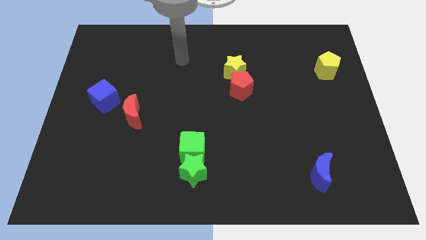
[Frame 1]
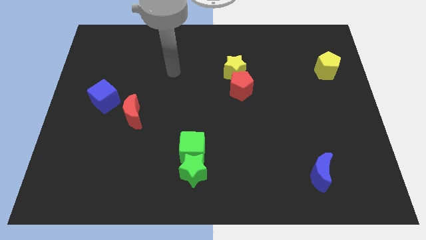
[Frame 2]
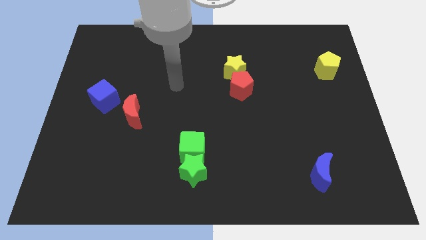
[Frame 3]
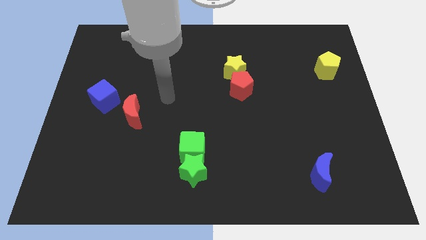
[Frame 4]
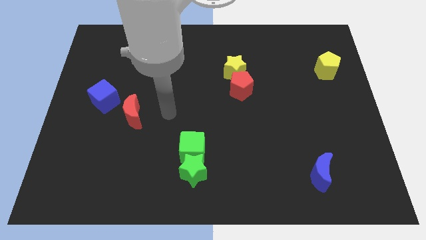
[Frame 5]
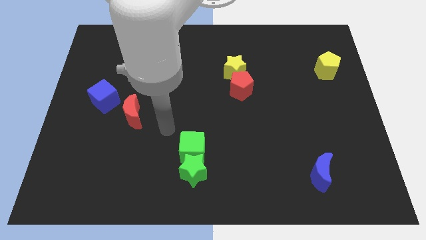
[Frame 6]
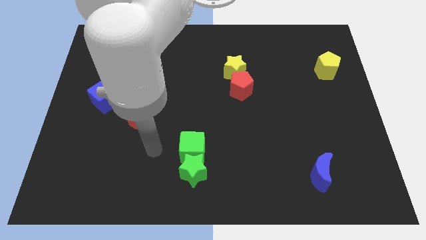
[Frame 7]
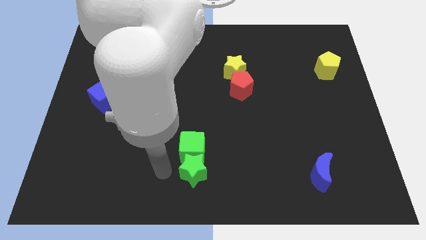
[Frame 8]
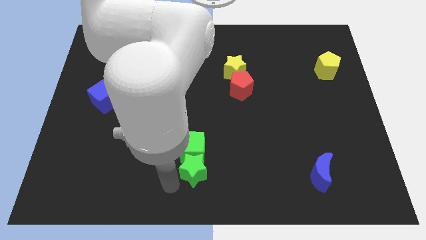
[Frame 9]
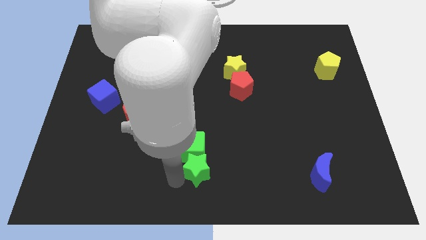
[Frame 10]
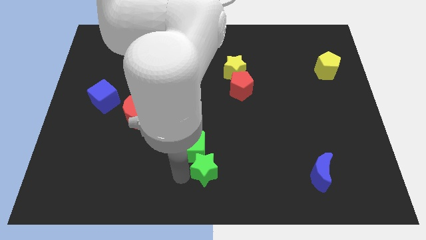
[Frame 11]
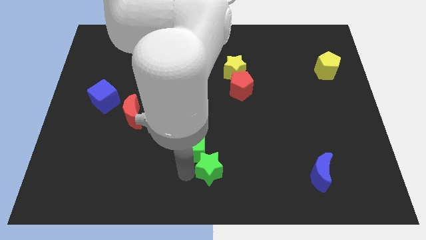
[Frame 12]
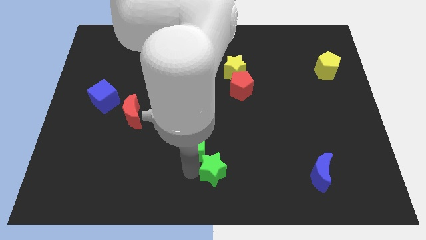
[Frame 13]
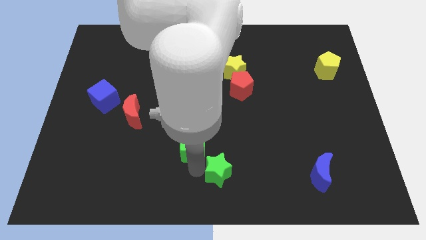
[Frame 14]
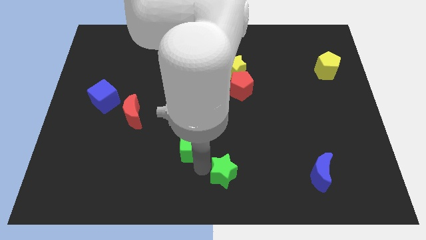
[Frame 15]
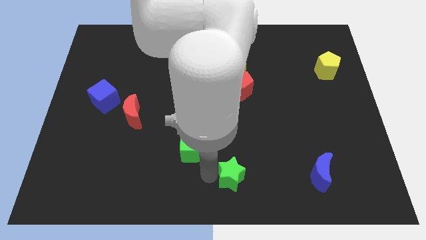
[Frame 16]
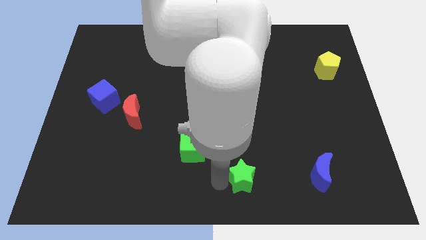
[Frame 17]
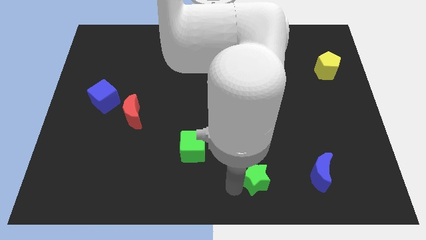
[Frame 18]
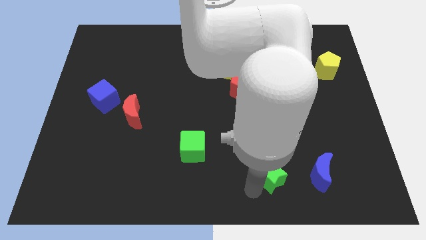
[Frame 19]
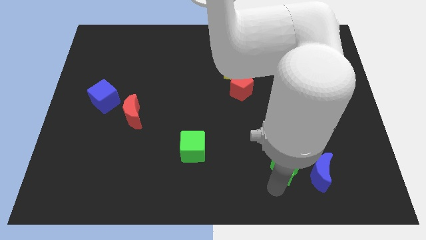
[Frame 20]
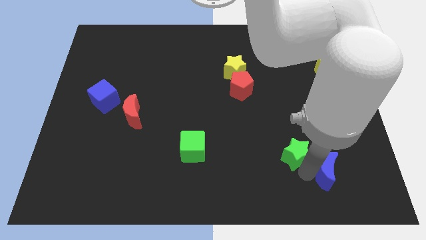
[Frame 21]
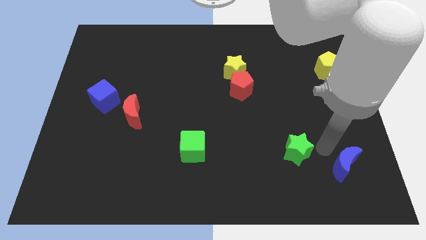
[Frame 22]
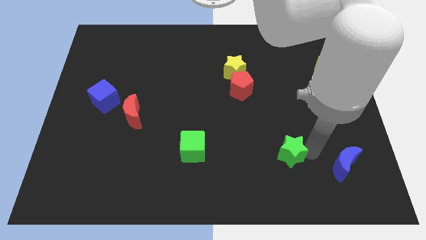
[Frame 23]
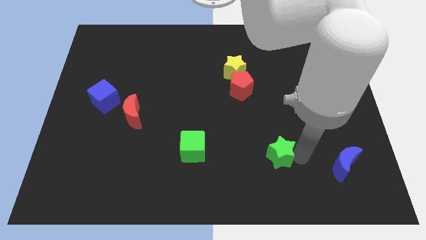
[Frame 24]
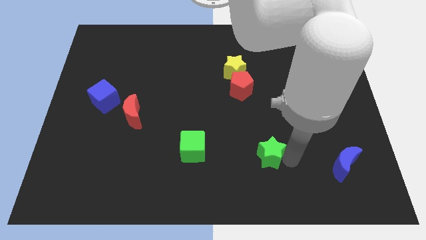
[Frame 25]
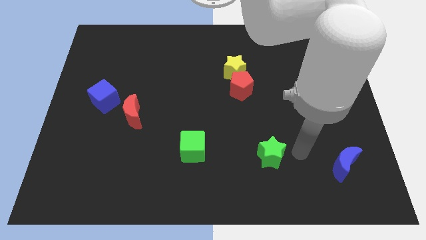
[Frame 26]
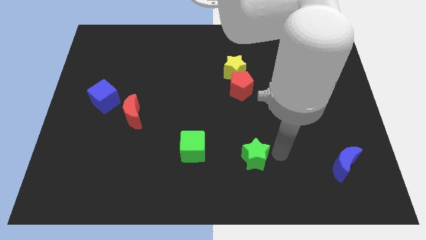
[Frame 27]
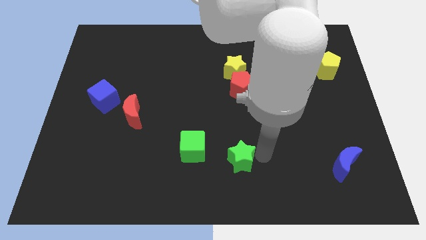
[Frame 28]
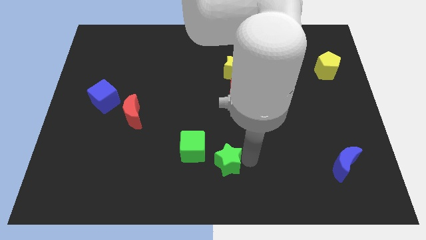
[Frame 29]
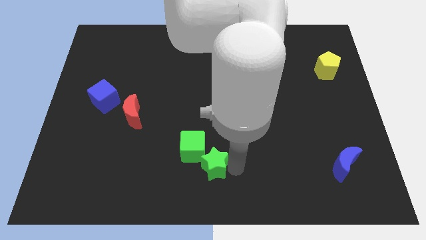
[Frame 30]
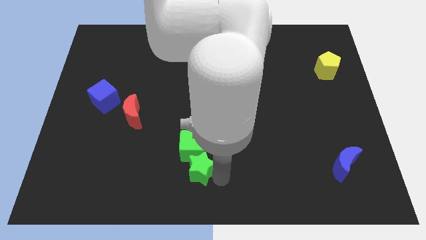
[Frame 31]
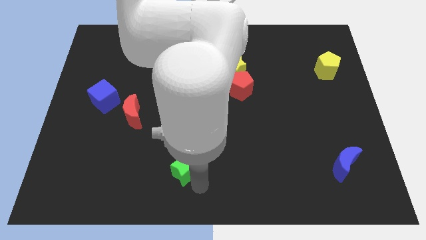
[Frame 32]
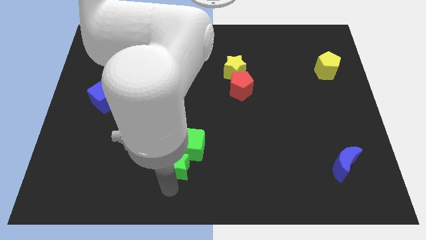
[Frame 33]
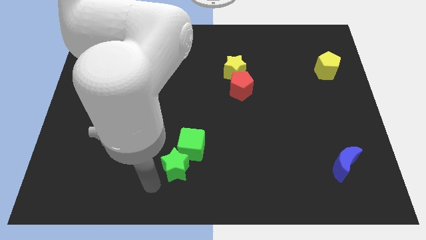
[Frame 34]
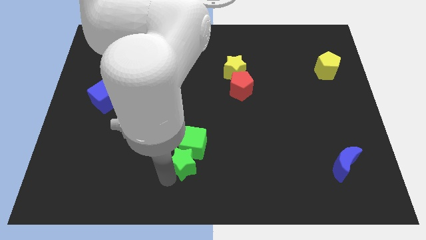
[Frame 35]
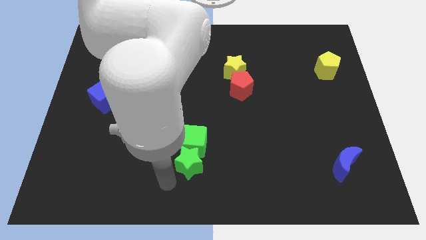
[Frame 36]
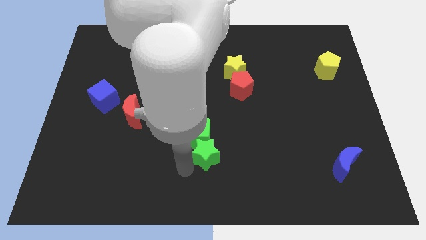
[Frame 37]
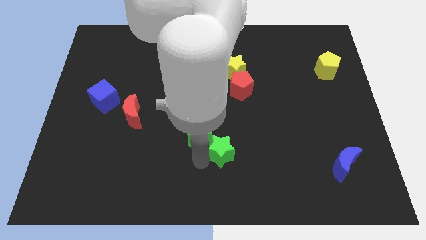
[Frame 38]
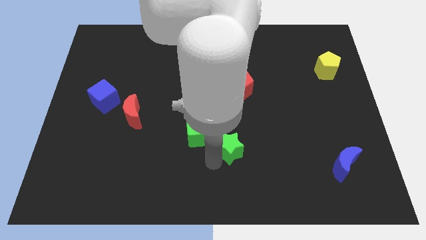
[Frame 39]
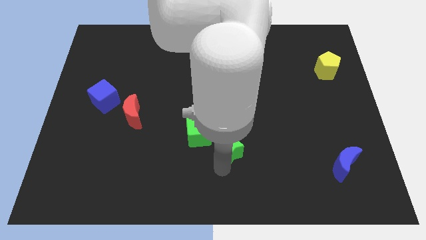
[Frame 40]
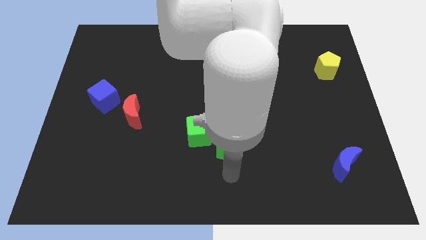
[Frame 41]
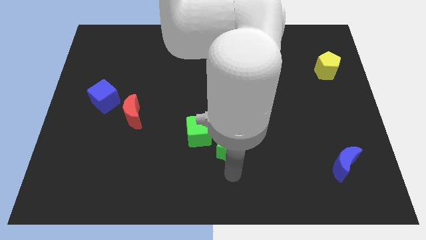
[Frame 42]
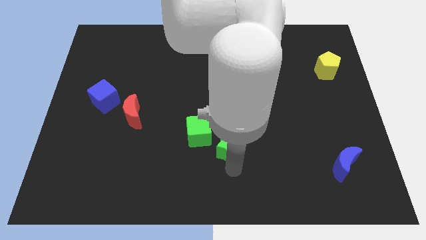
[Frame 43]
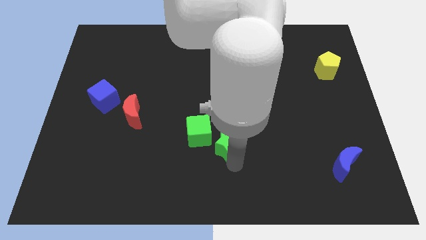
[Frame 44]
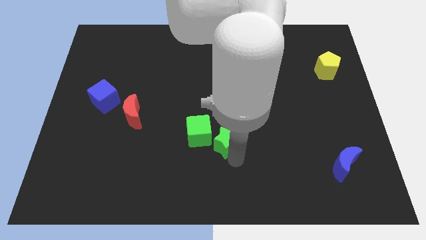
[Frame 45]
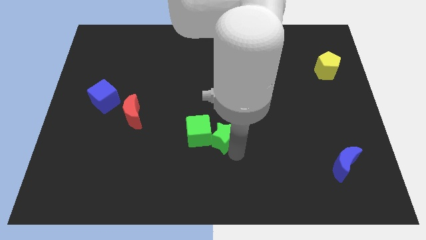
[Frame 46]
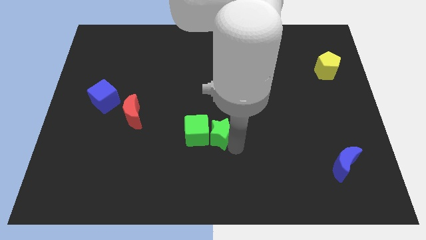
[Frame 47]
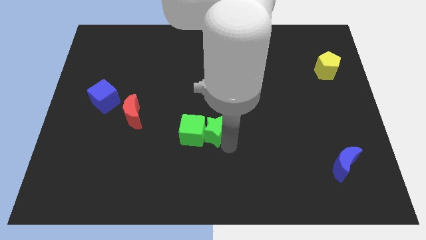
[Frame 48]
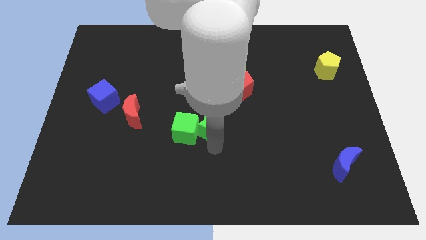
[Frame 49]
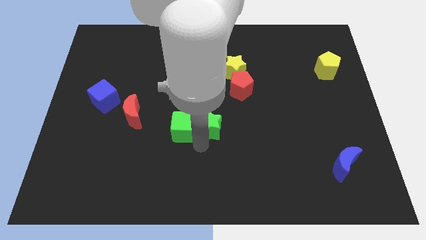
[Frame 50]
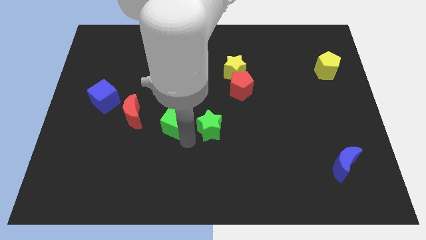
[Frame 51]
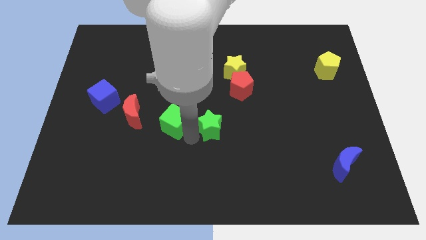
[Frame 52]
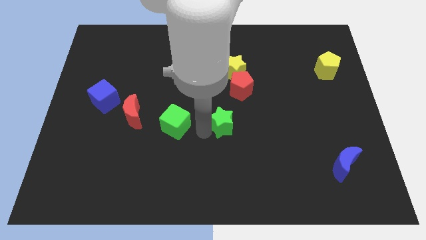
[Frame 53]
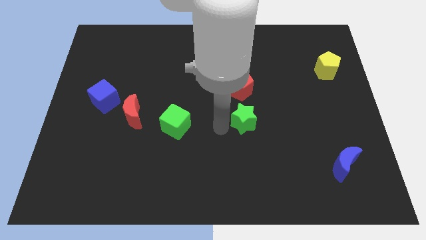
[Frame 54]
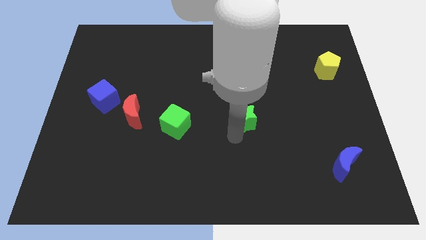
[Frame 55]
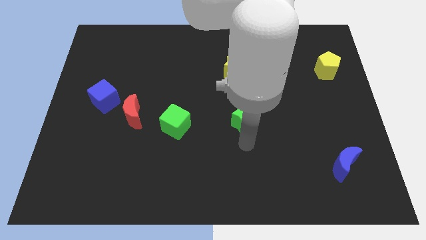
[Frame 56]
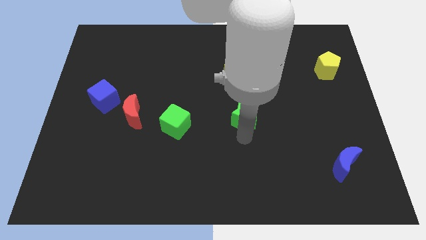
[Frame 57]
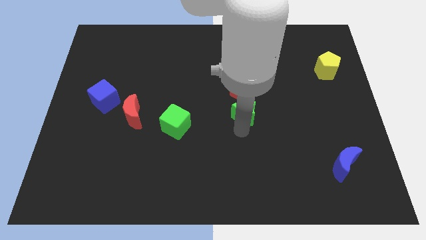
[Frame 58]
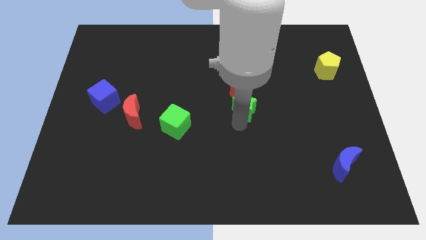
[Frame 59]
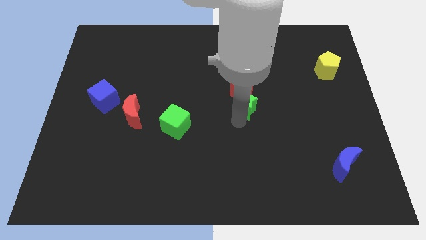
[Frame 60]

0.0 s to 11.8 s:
move the green star to the red pentagon

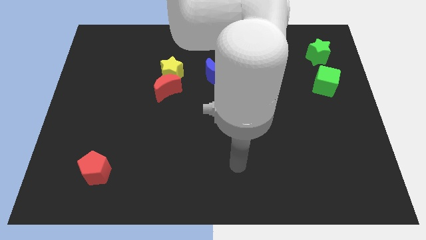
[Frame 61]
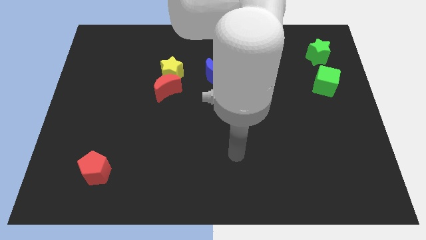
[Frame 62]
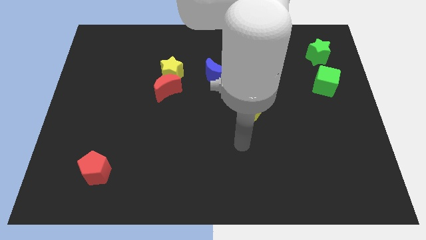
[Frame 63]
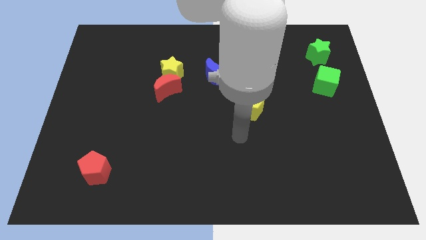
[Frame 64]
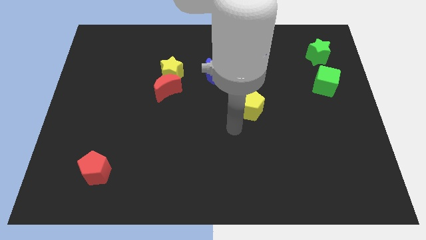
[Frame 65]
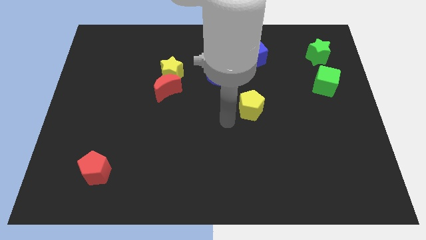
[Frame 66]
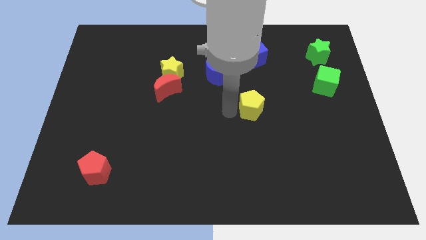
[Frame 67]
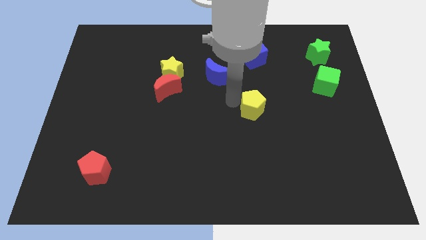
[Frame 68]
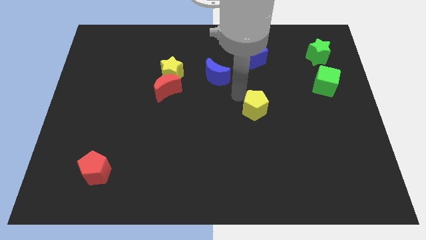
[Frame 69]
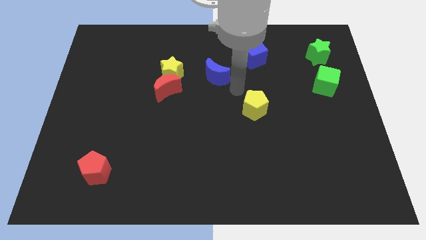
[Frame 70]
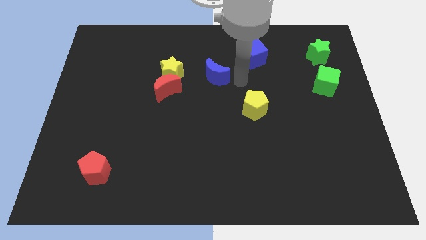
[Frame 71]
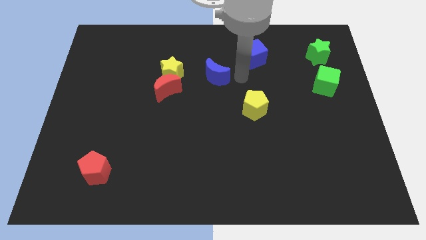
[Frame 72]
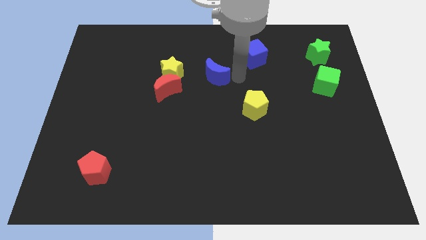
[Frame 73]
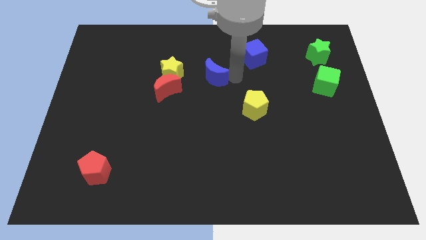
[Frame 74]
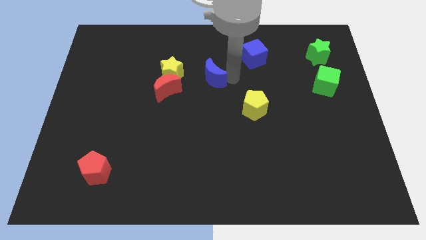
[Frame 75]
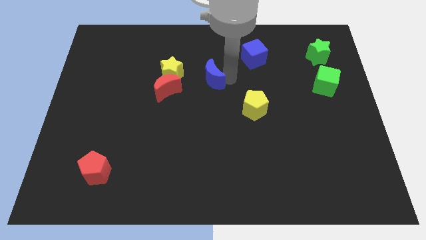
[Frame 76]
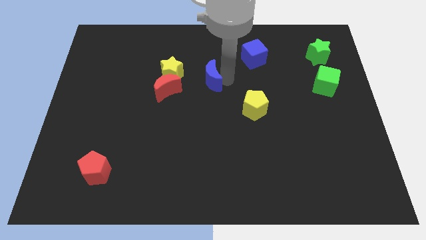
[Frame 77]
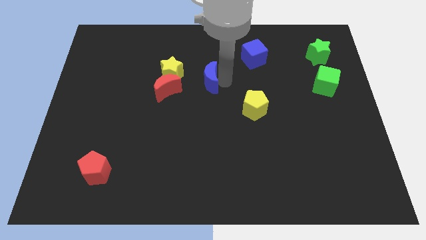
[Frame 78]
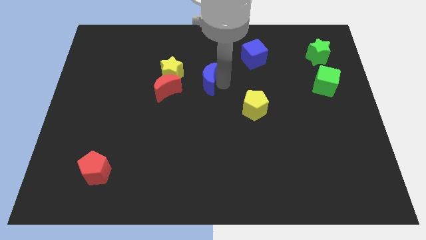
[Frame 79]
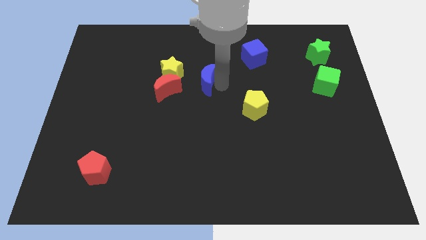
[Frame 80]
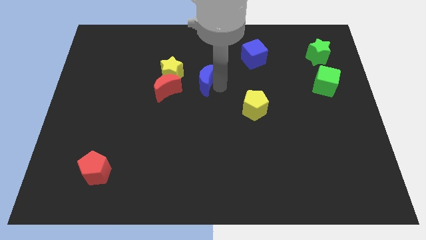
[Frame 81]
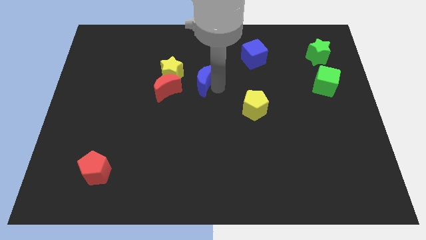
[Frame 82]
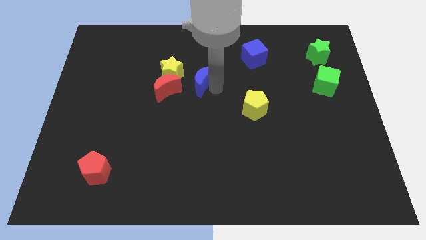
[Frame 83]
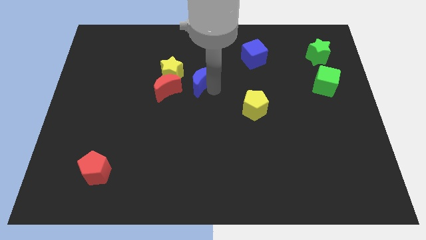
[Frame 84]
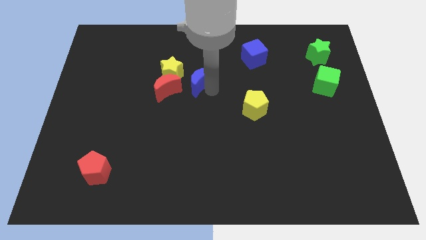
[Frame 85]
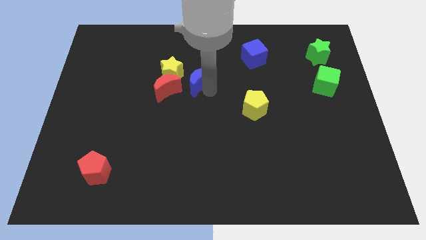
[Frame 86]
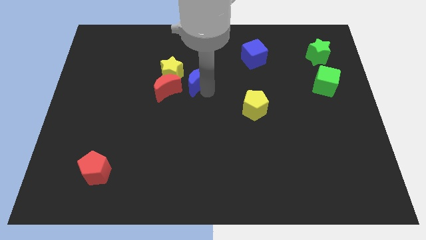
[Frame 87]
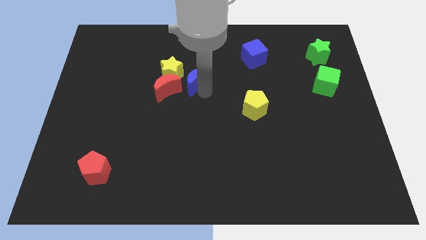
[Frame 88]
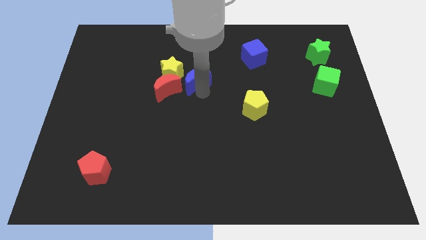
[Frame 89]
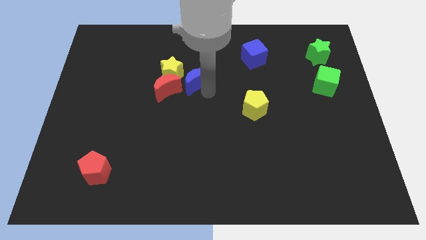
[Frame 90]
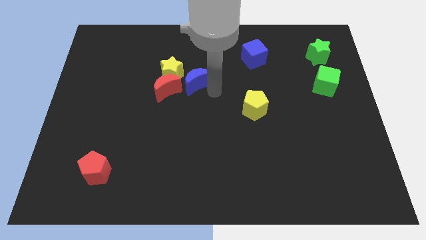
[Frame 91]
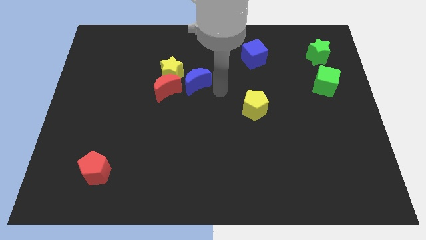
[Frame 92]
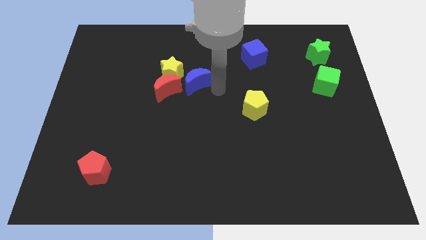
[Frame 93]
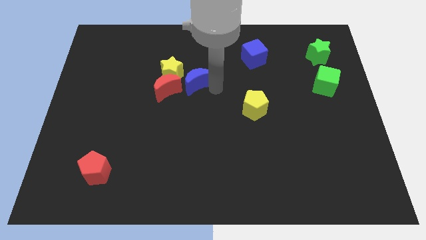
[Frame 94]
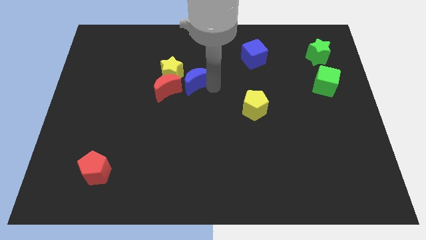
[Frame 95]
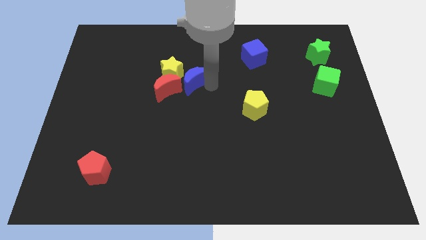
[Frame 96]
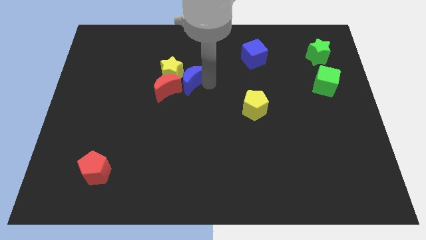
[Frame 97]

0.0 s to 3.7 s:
move the blue moon close to the yellow star
